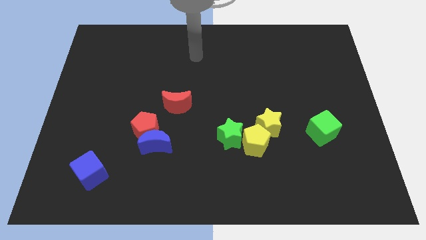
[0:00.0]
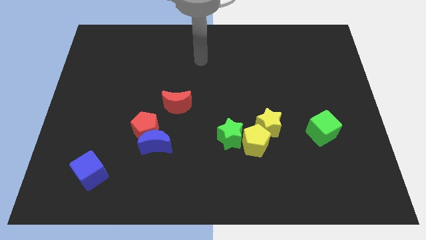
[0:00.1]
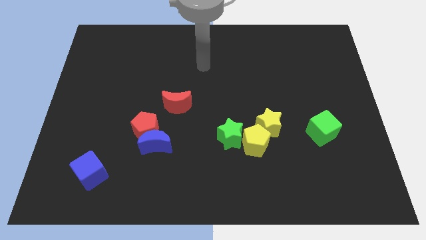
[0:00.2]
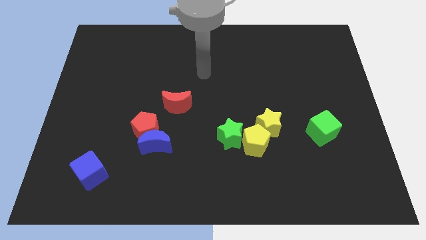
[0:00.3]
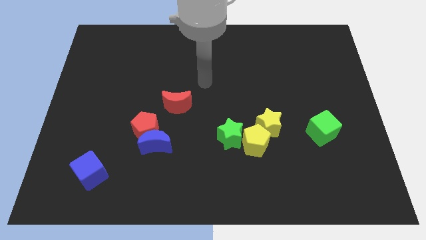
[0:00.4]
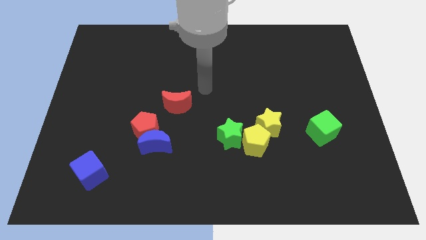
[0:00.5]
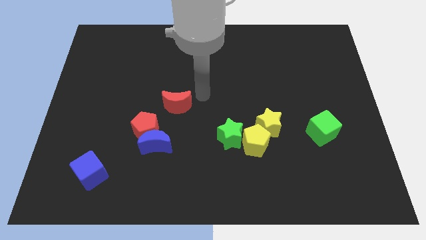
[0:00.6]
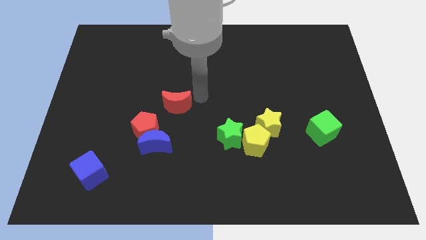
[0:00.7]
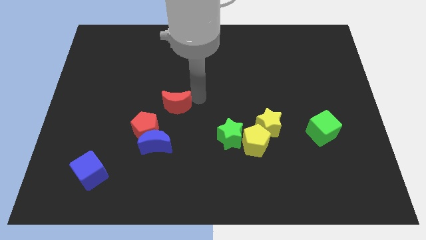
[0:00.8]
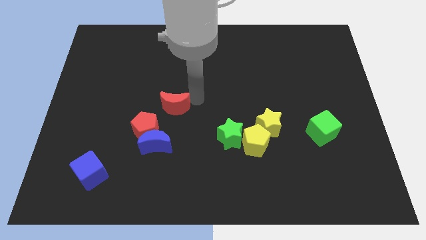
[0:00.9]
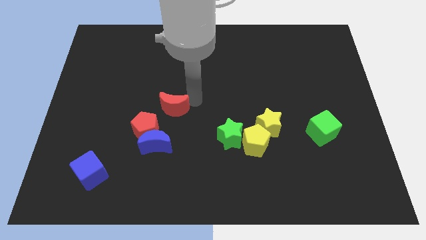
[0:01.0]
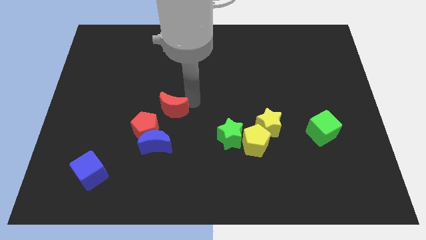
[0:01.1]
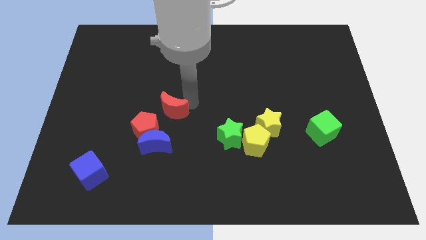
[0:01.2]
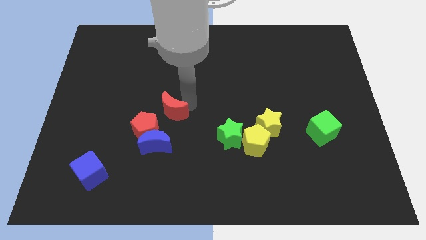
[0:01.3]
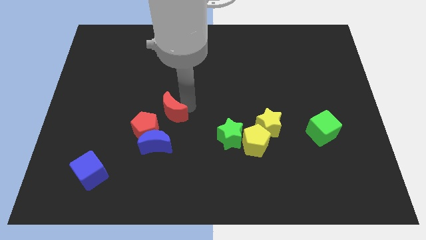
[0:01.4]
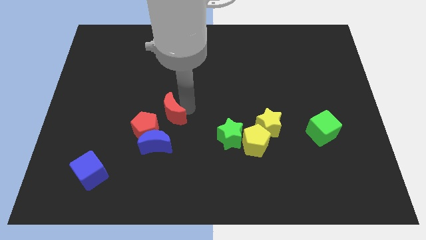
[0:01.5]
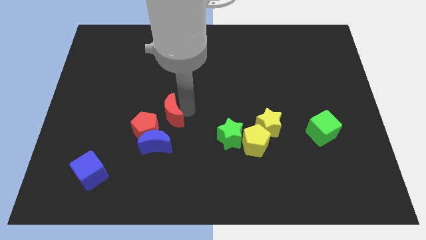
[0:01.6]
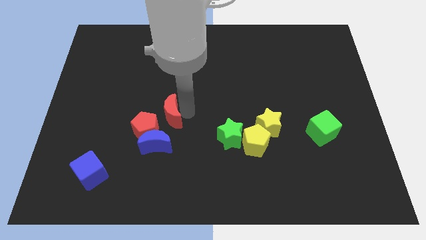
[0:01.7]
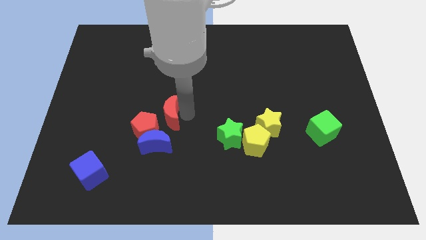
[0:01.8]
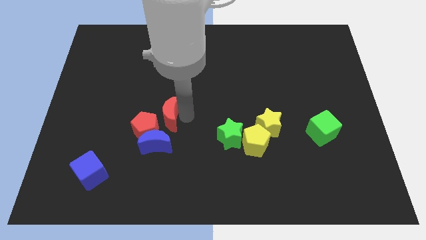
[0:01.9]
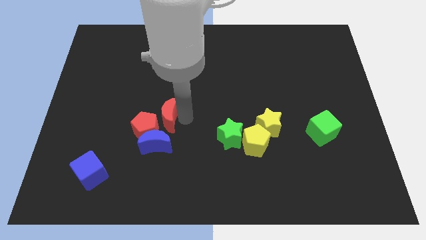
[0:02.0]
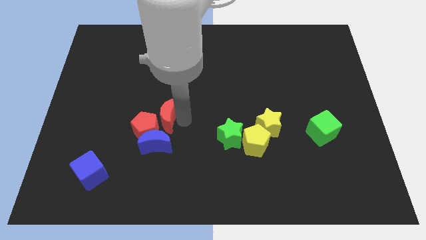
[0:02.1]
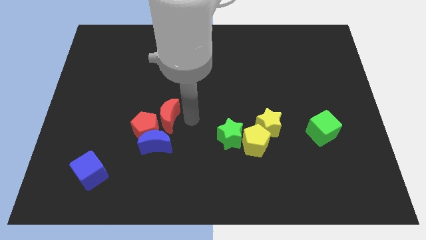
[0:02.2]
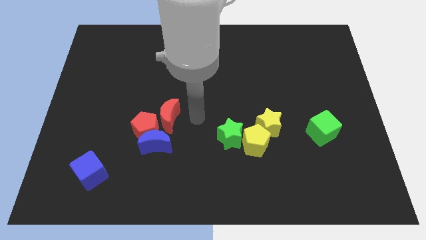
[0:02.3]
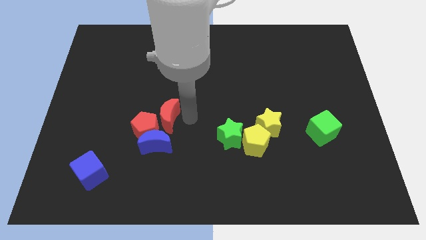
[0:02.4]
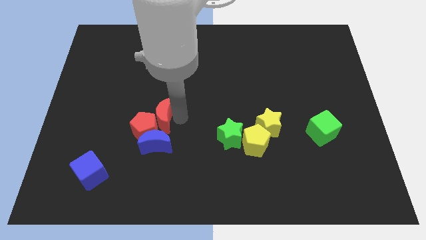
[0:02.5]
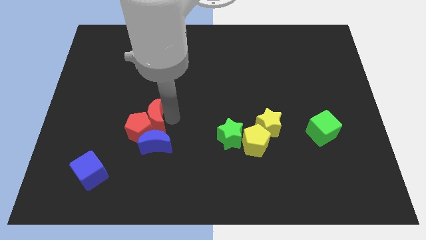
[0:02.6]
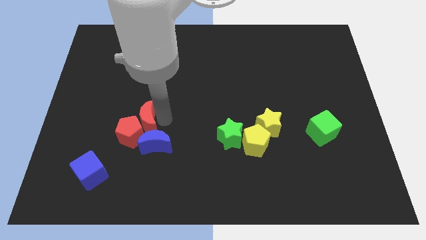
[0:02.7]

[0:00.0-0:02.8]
slightly push the red moon downwards and left

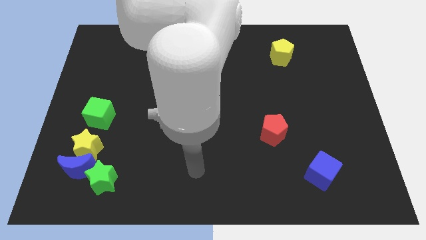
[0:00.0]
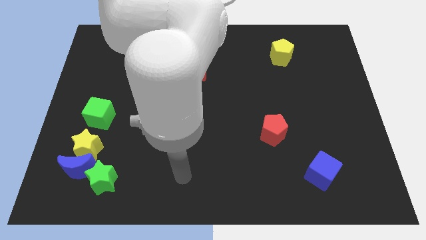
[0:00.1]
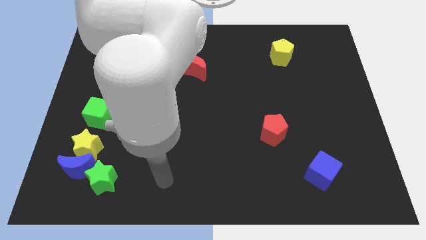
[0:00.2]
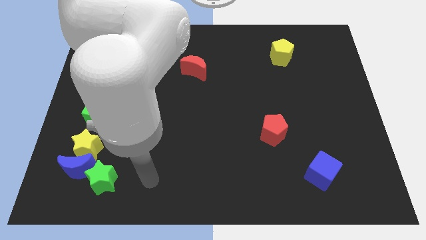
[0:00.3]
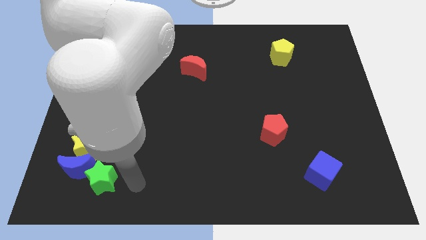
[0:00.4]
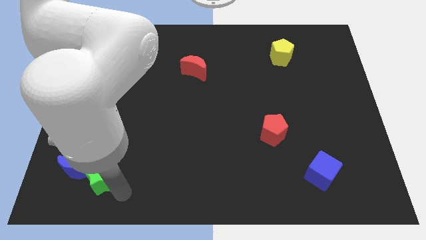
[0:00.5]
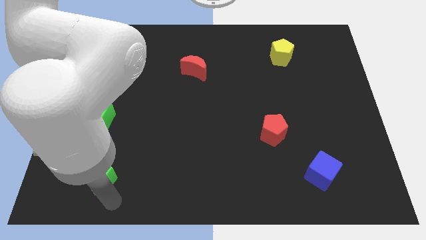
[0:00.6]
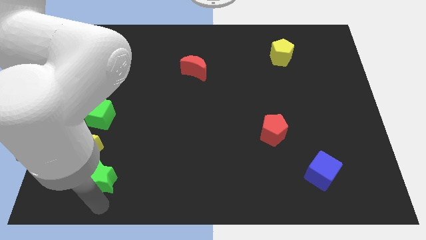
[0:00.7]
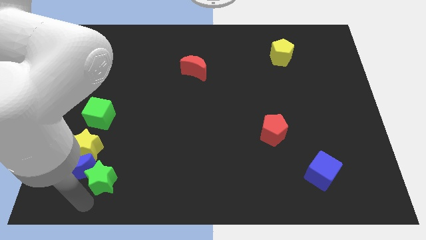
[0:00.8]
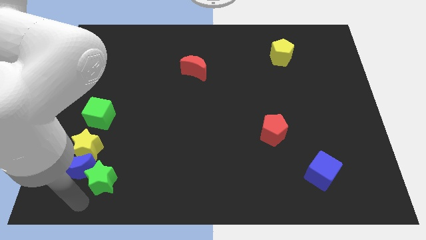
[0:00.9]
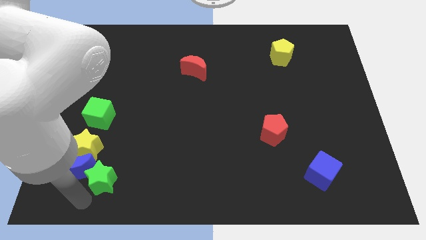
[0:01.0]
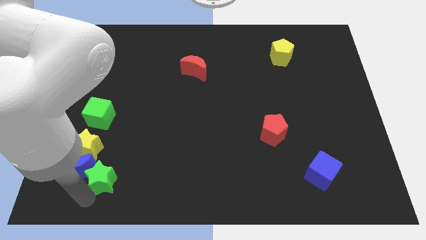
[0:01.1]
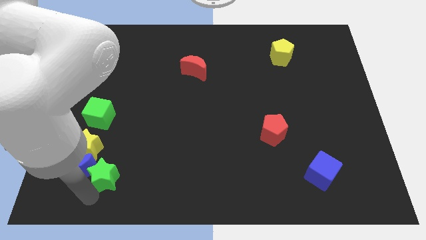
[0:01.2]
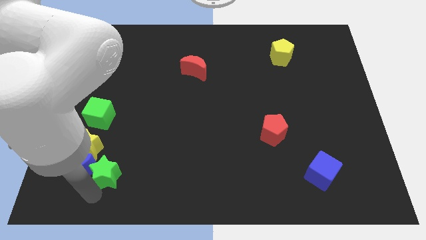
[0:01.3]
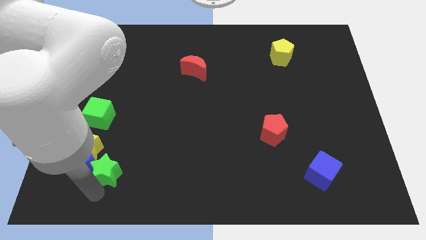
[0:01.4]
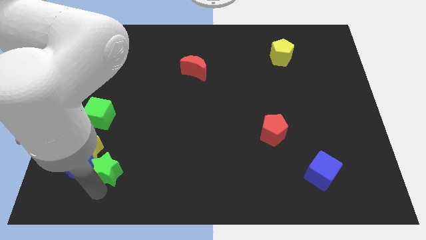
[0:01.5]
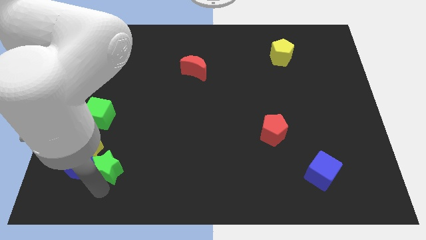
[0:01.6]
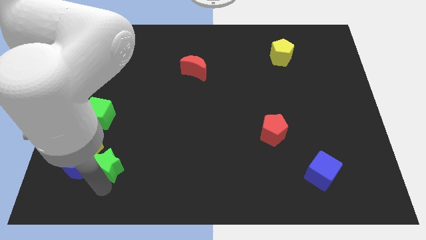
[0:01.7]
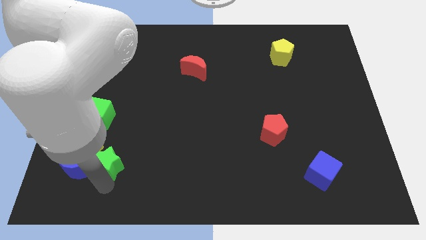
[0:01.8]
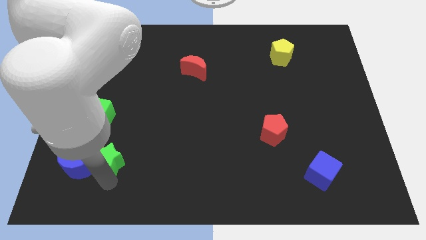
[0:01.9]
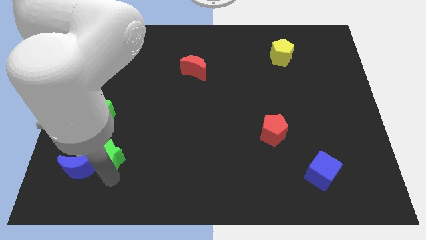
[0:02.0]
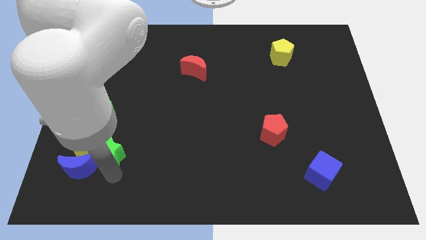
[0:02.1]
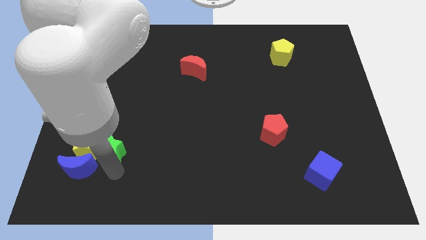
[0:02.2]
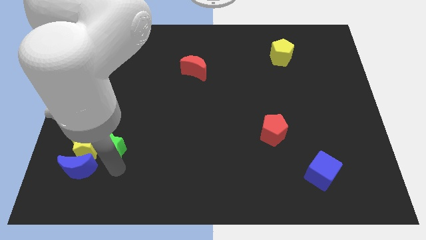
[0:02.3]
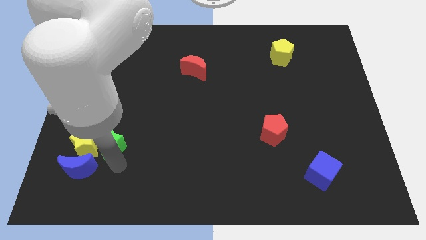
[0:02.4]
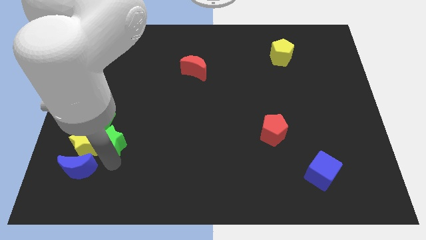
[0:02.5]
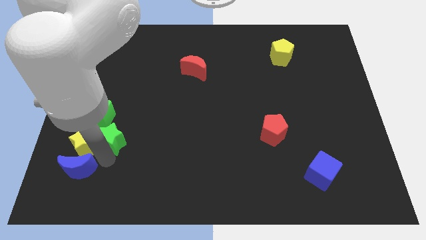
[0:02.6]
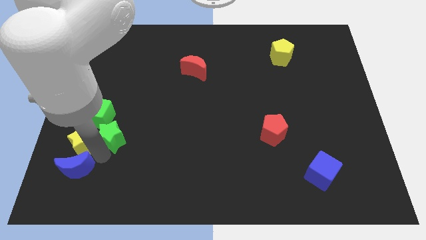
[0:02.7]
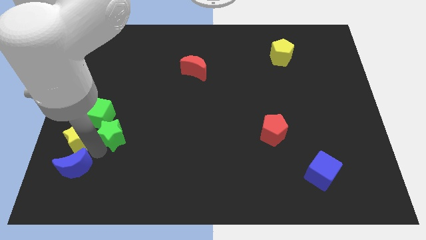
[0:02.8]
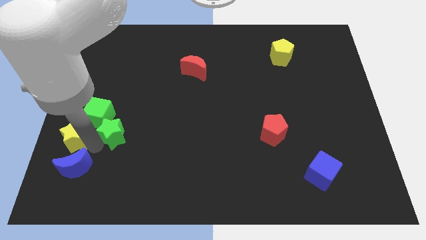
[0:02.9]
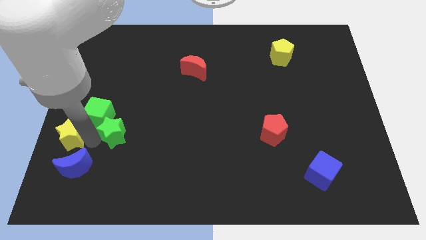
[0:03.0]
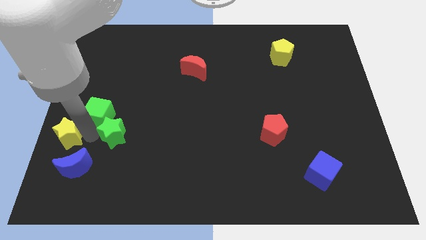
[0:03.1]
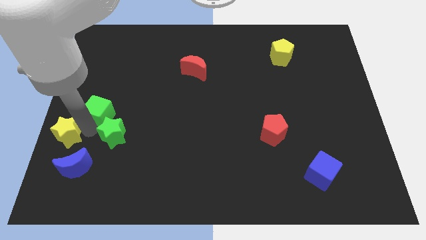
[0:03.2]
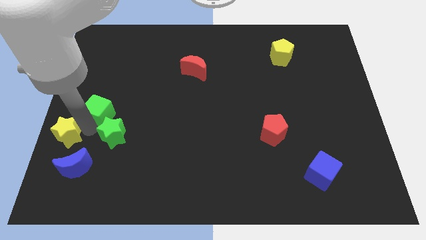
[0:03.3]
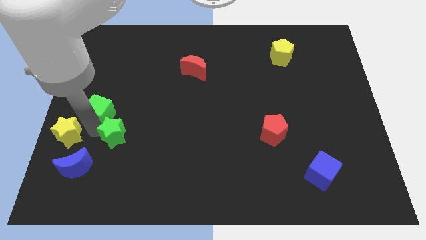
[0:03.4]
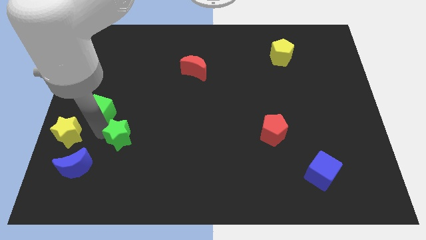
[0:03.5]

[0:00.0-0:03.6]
slightly slide the green star upwards and then to the right

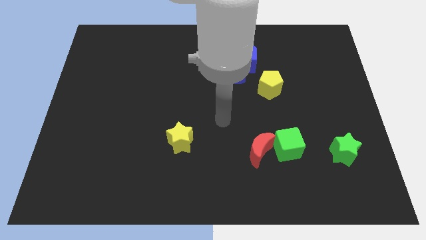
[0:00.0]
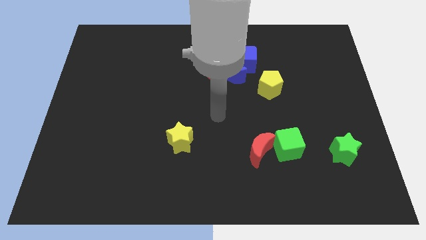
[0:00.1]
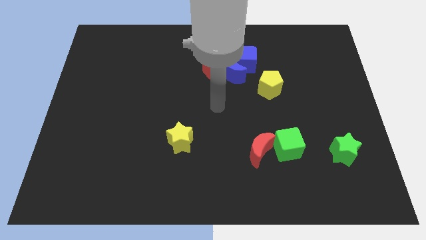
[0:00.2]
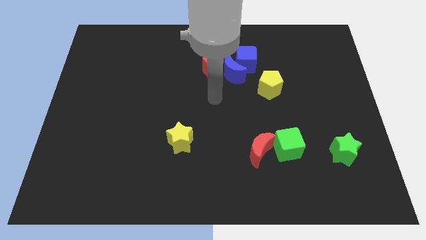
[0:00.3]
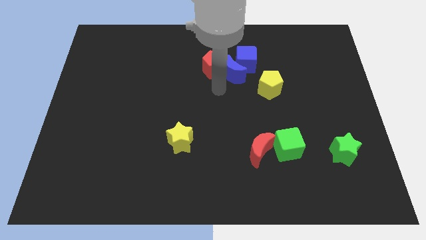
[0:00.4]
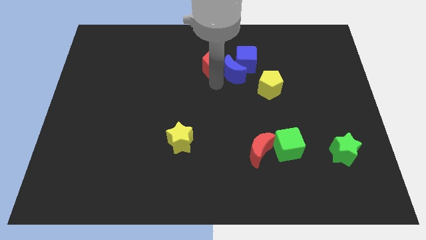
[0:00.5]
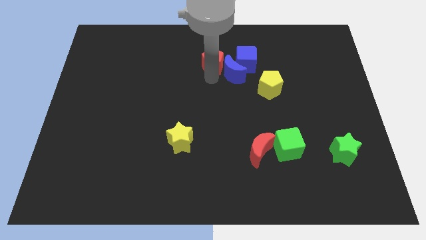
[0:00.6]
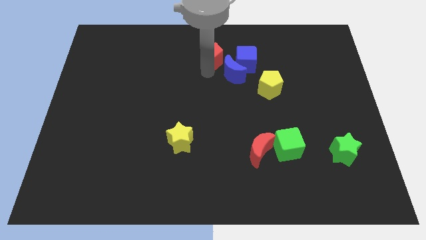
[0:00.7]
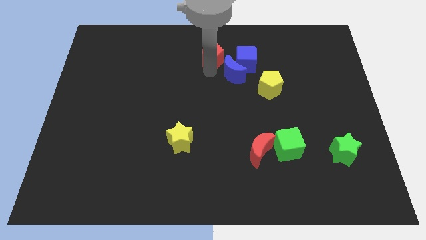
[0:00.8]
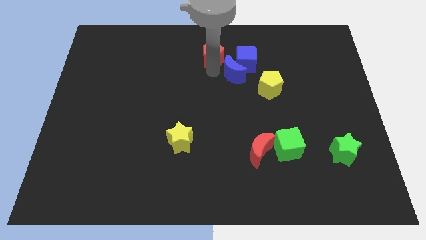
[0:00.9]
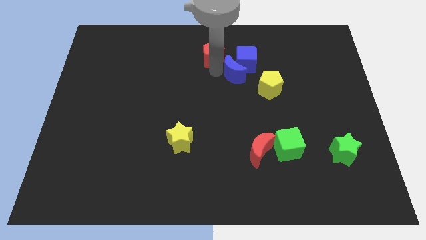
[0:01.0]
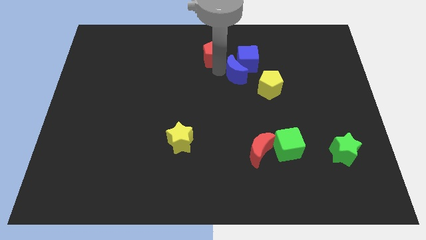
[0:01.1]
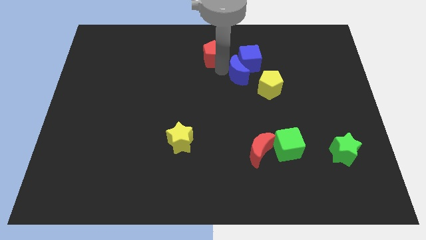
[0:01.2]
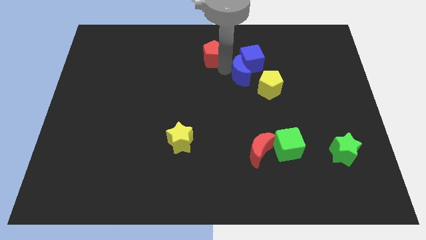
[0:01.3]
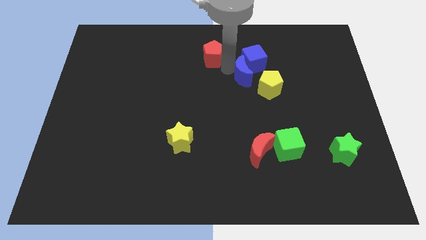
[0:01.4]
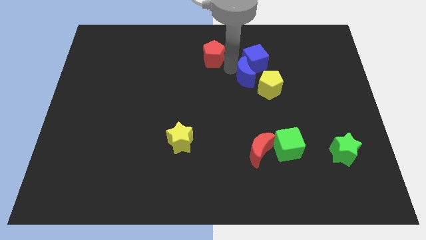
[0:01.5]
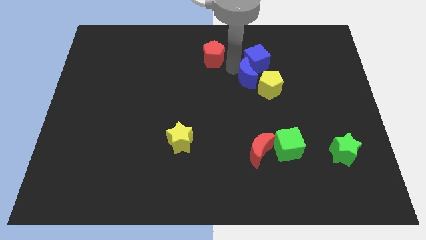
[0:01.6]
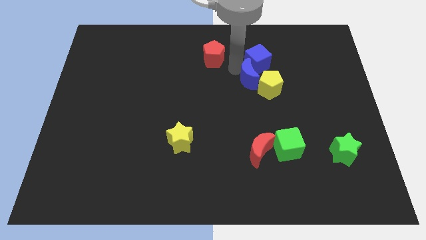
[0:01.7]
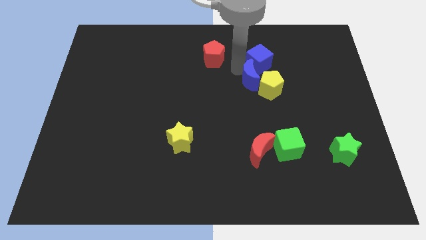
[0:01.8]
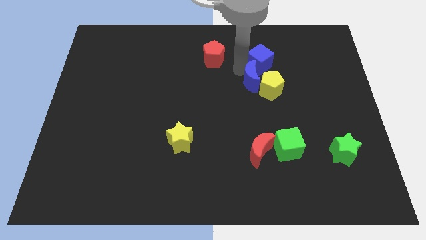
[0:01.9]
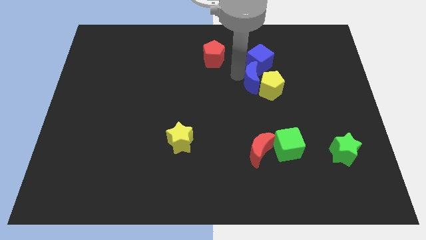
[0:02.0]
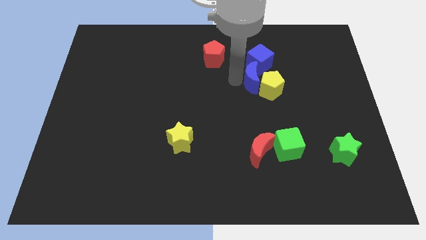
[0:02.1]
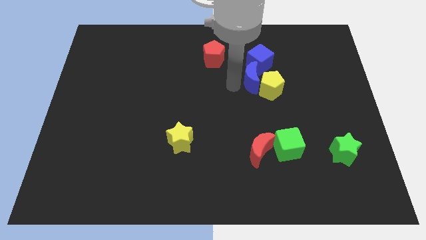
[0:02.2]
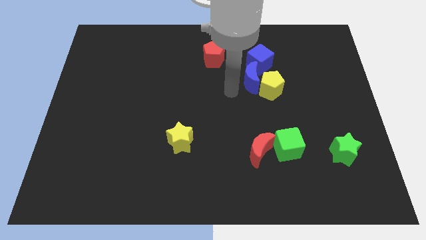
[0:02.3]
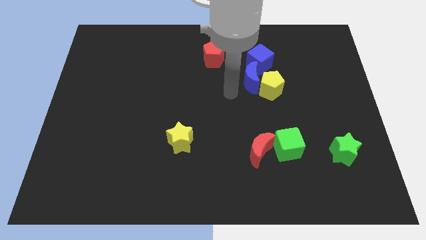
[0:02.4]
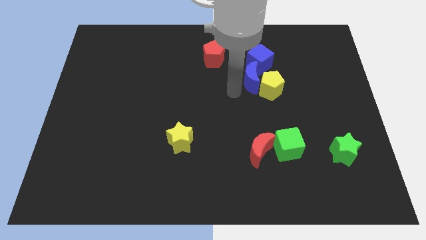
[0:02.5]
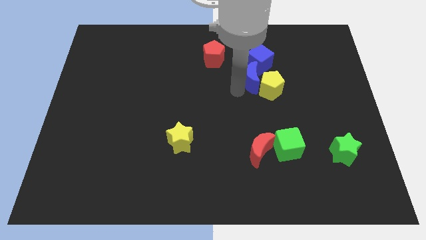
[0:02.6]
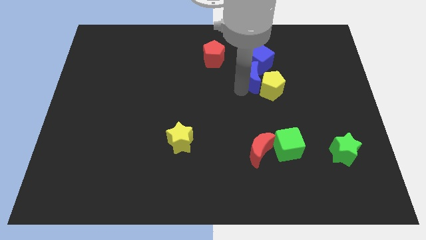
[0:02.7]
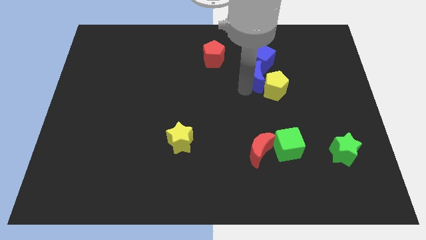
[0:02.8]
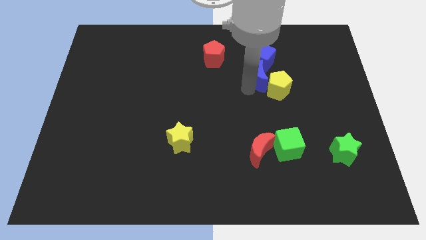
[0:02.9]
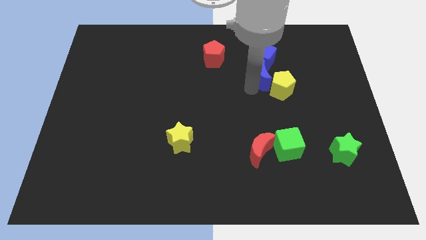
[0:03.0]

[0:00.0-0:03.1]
slightly push the blue moon to the right
